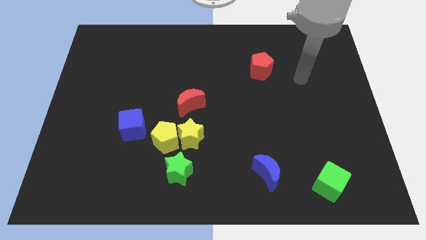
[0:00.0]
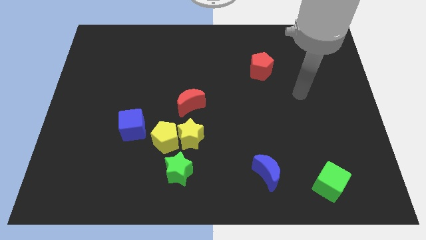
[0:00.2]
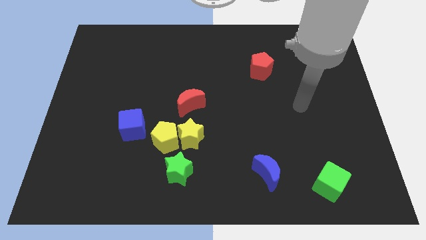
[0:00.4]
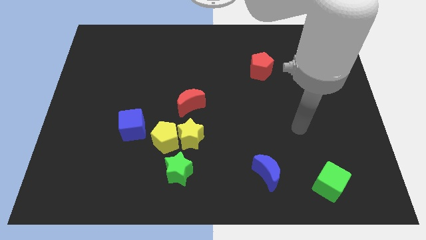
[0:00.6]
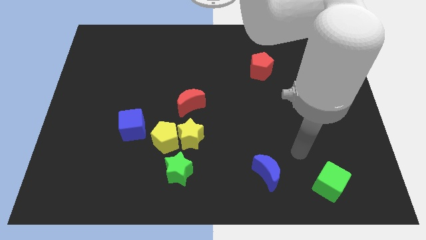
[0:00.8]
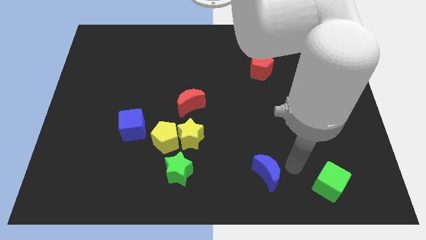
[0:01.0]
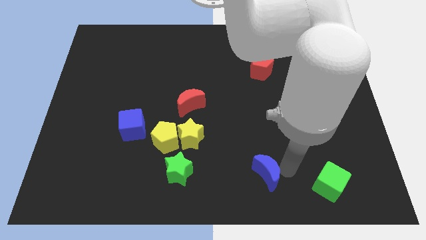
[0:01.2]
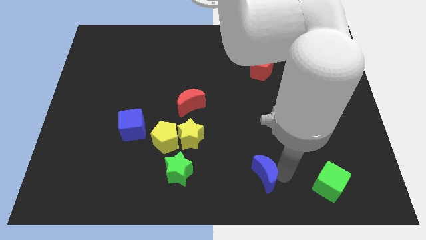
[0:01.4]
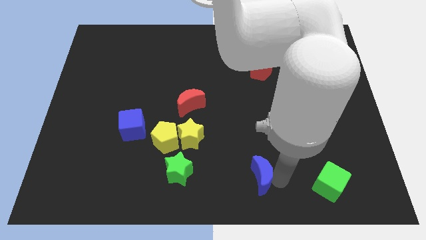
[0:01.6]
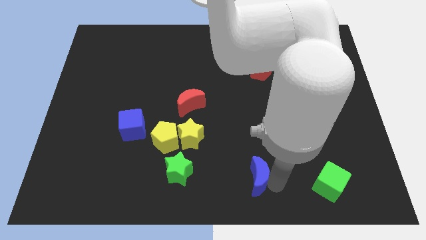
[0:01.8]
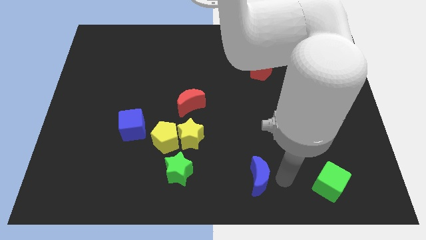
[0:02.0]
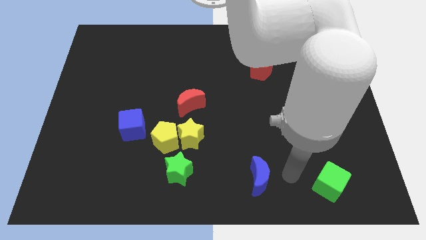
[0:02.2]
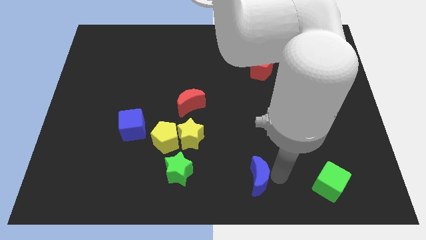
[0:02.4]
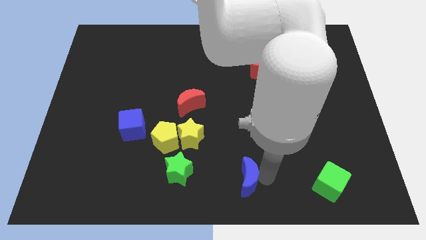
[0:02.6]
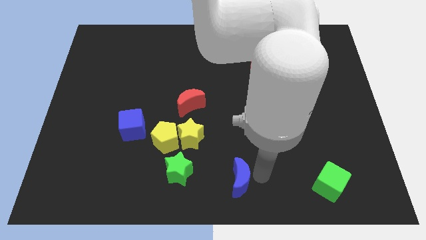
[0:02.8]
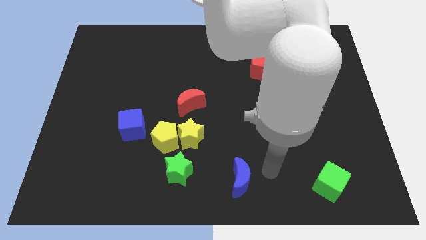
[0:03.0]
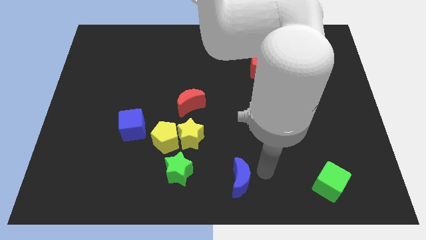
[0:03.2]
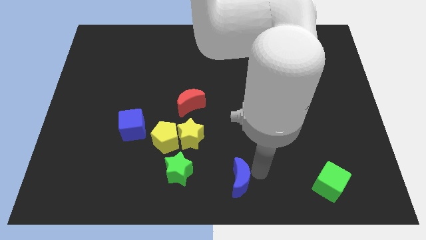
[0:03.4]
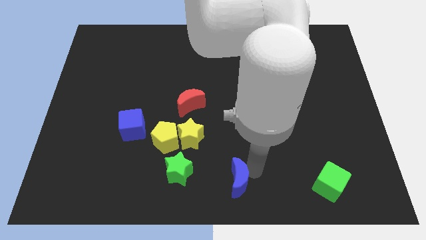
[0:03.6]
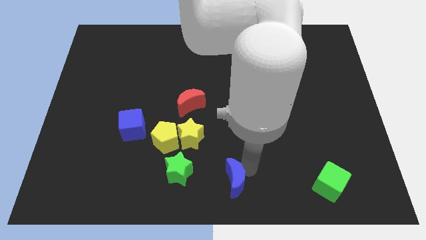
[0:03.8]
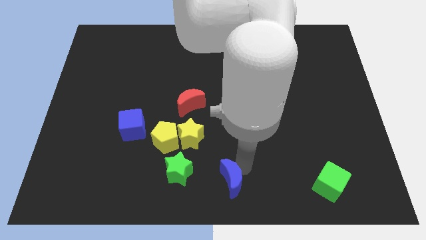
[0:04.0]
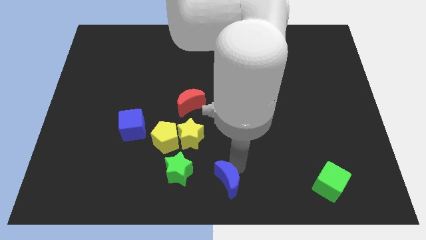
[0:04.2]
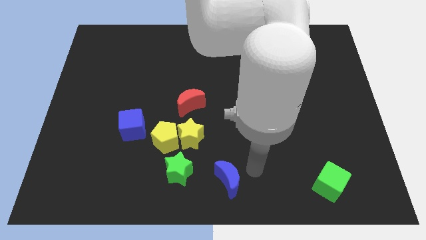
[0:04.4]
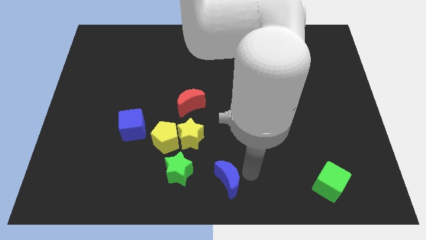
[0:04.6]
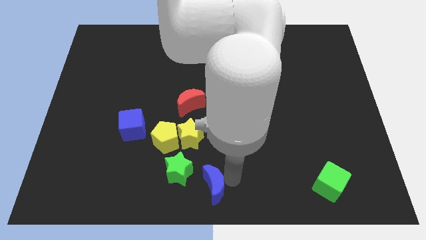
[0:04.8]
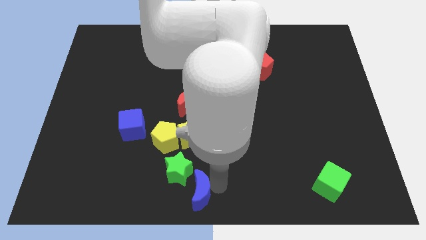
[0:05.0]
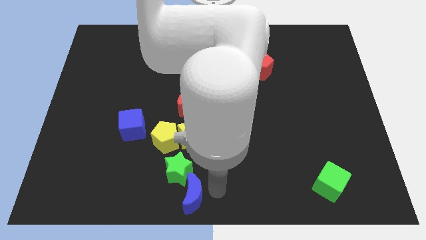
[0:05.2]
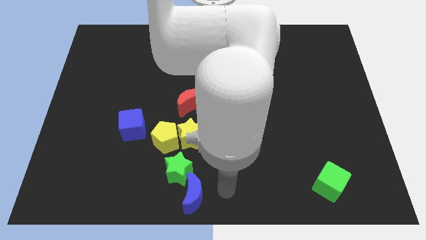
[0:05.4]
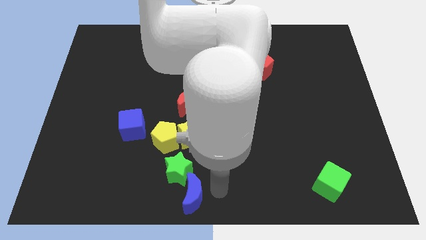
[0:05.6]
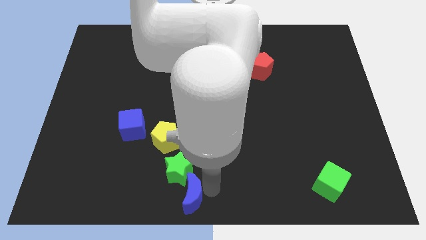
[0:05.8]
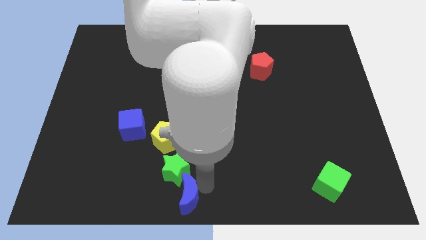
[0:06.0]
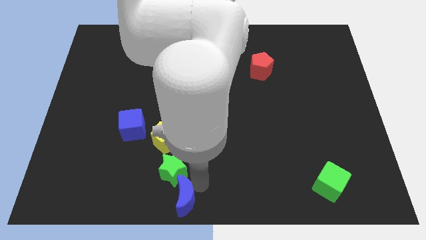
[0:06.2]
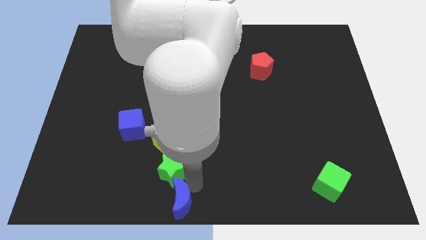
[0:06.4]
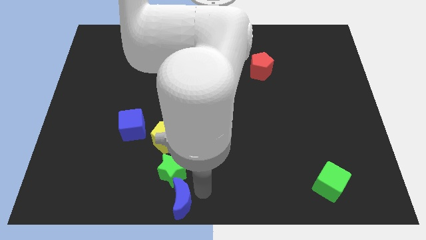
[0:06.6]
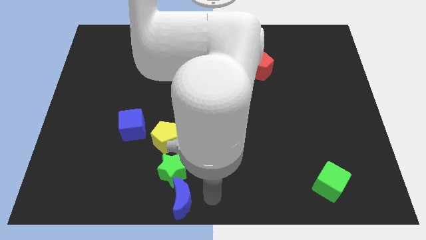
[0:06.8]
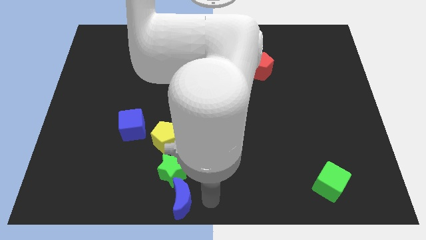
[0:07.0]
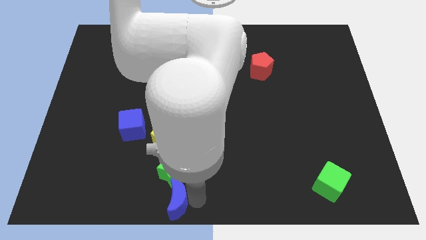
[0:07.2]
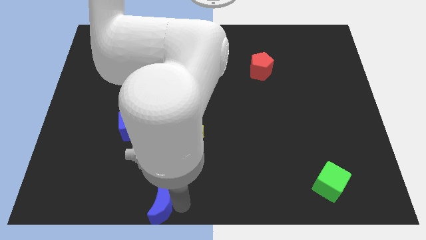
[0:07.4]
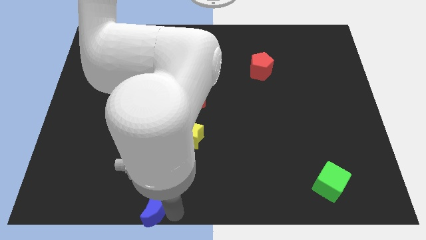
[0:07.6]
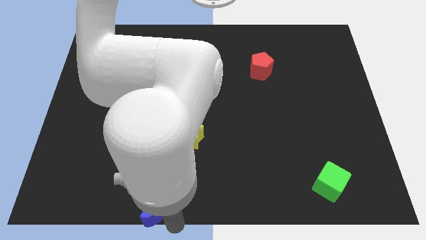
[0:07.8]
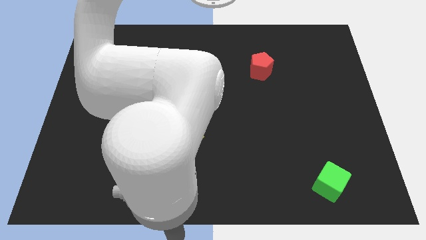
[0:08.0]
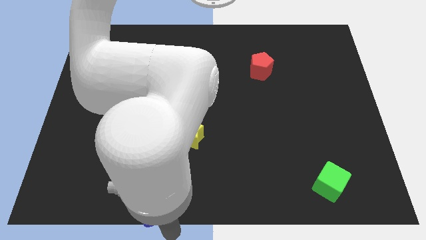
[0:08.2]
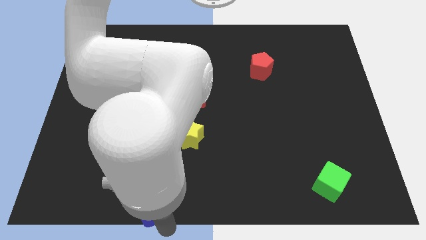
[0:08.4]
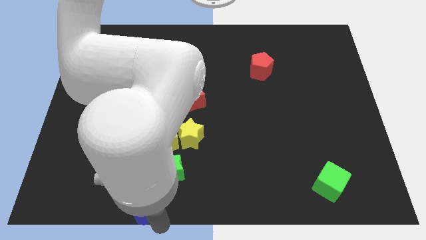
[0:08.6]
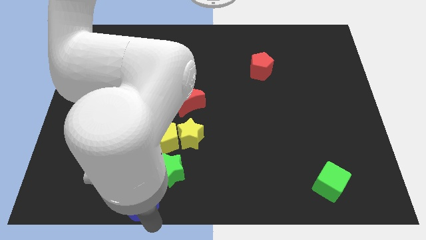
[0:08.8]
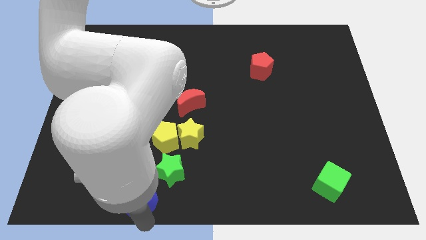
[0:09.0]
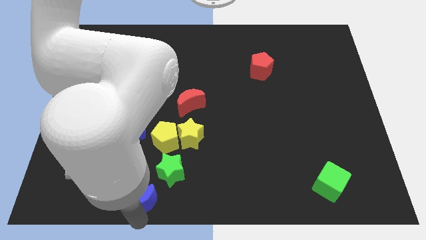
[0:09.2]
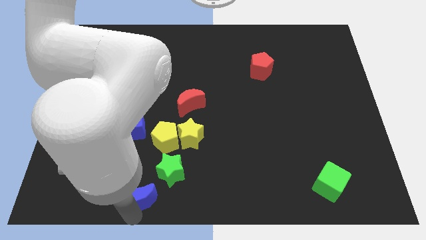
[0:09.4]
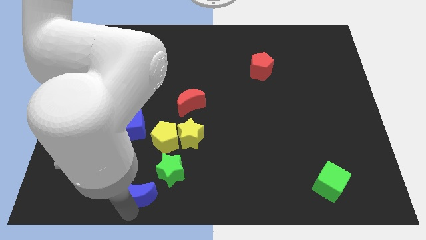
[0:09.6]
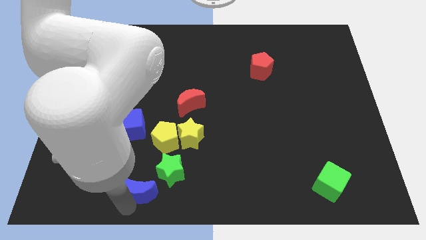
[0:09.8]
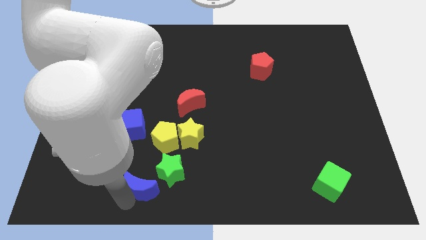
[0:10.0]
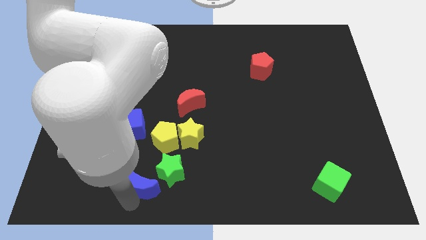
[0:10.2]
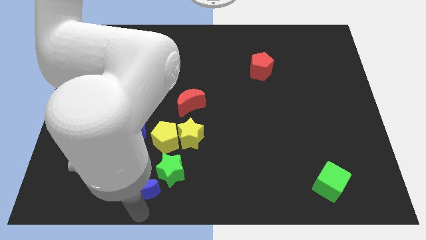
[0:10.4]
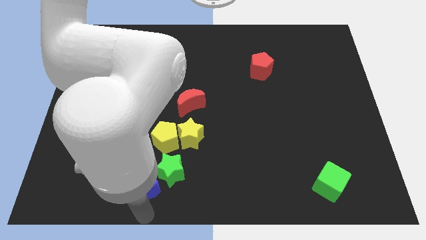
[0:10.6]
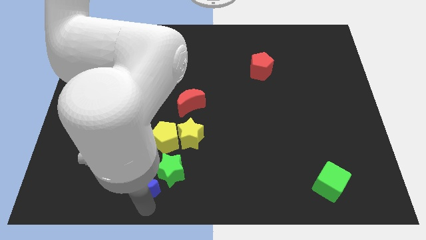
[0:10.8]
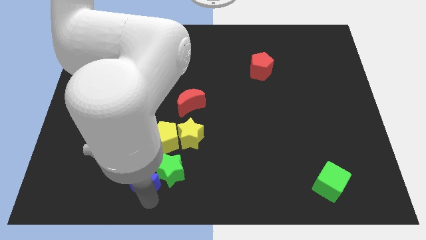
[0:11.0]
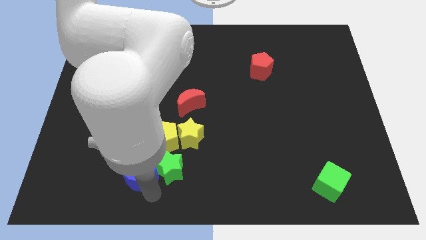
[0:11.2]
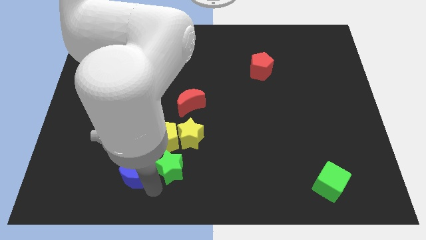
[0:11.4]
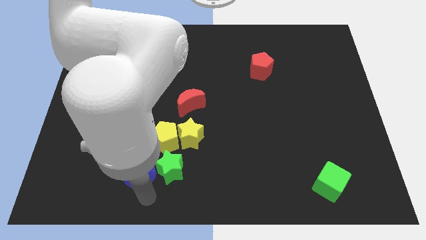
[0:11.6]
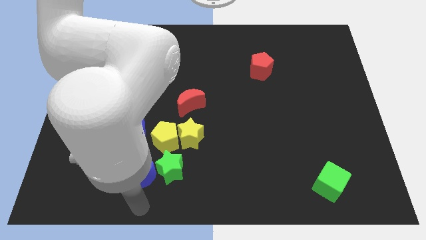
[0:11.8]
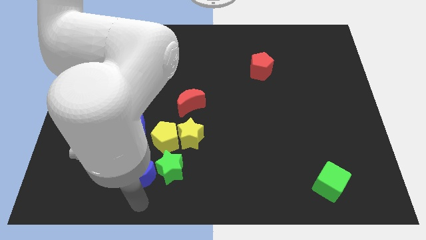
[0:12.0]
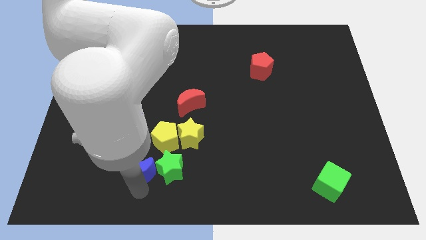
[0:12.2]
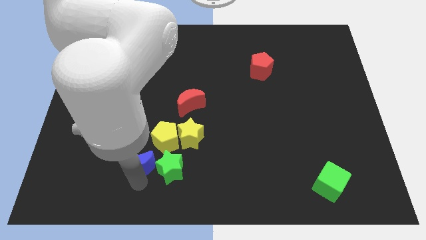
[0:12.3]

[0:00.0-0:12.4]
put the blue moon to the top left side of the green star

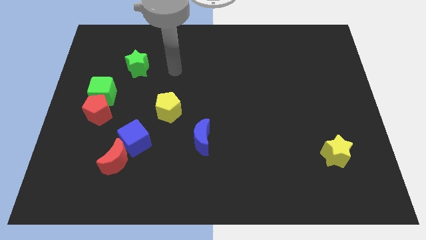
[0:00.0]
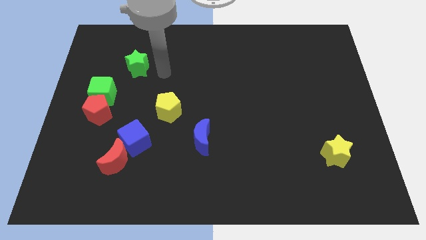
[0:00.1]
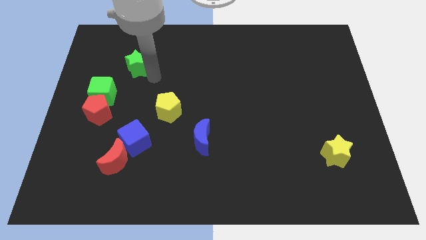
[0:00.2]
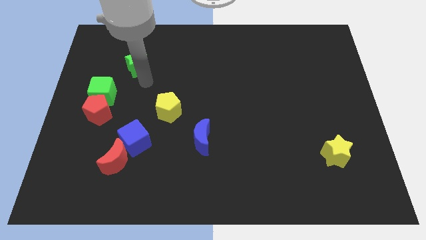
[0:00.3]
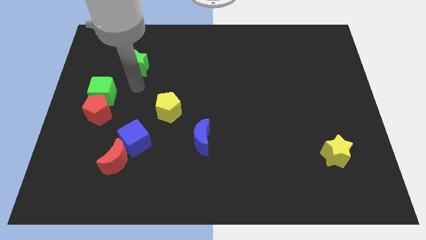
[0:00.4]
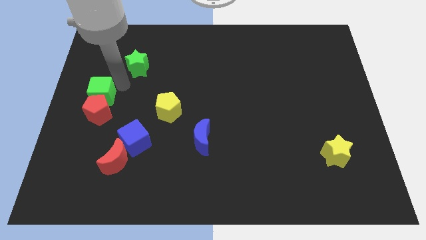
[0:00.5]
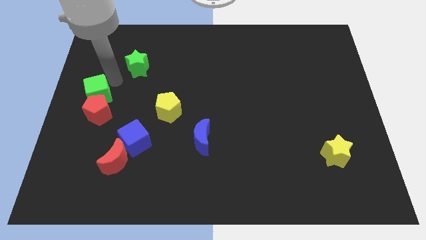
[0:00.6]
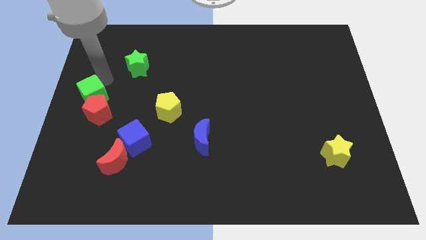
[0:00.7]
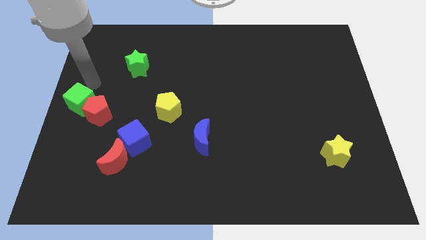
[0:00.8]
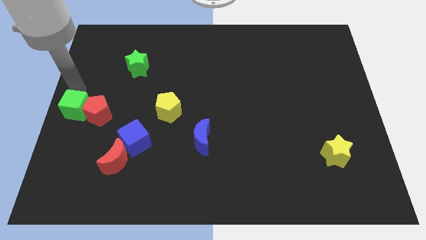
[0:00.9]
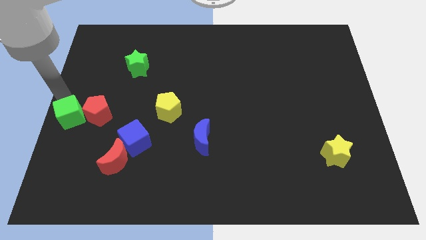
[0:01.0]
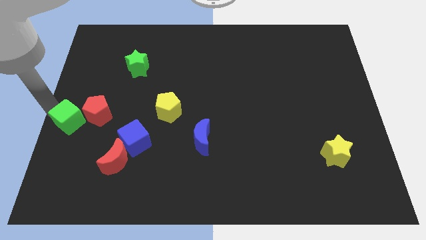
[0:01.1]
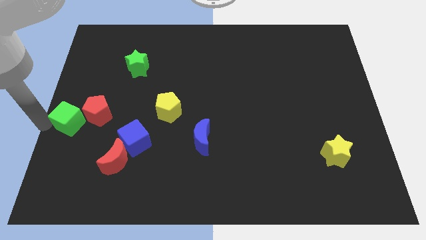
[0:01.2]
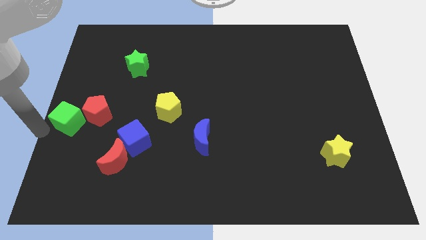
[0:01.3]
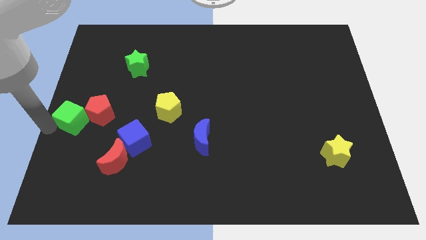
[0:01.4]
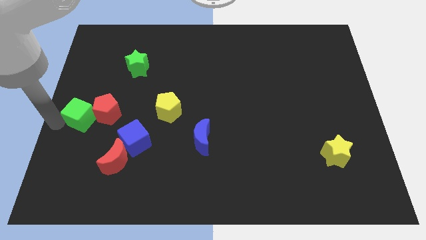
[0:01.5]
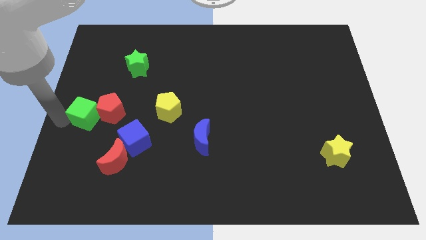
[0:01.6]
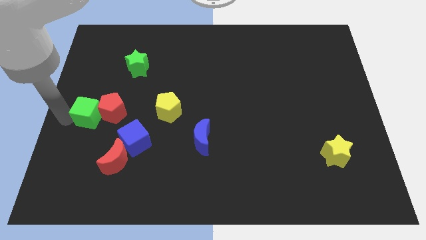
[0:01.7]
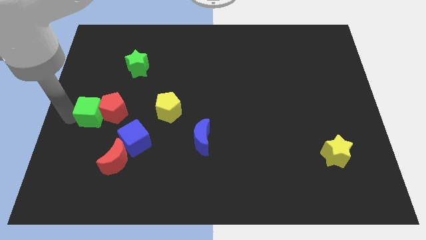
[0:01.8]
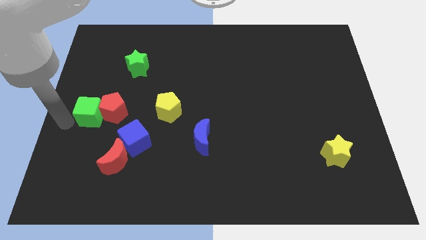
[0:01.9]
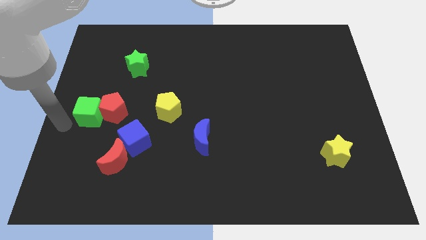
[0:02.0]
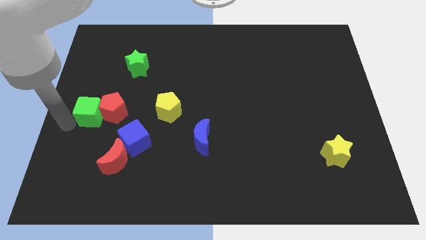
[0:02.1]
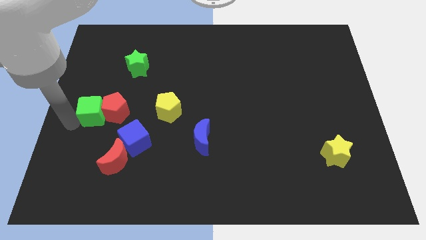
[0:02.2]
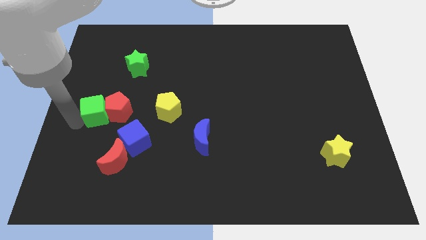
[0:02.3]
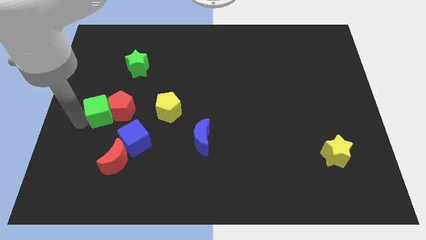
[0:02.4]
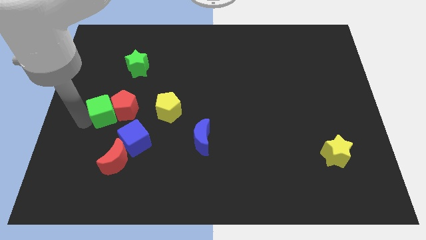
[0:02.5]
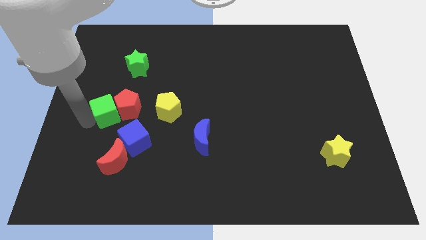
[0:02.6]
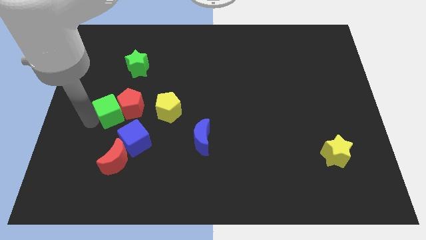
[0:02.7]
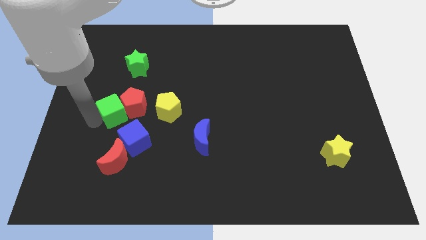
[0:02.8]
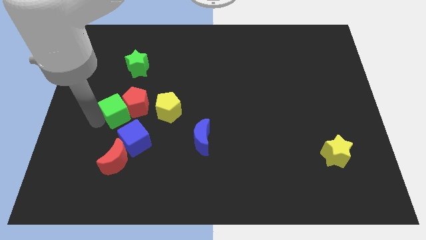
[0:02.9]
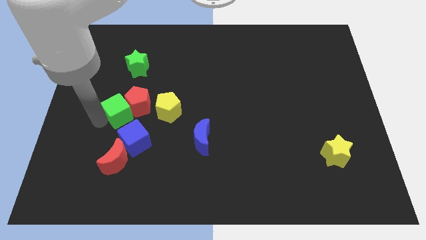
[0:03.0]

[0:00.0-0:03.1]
put the green cube to the top of the blue cube
